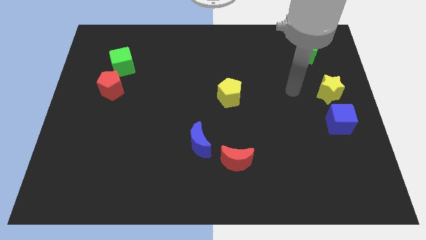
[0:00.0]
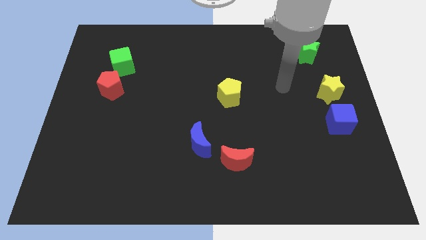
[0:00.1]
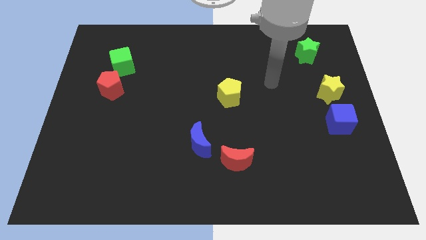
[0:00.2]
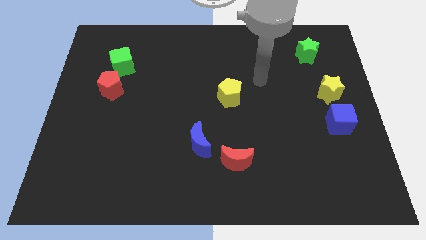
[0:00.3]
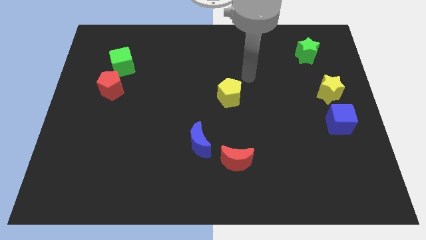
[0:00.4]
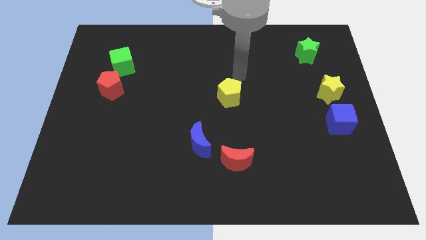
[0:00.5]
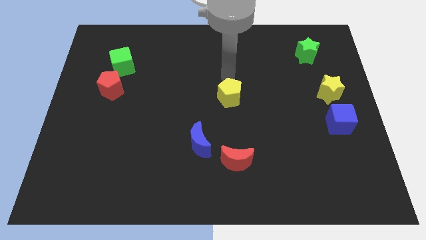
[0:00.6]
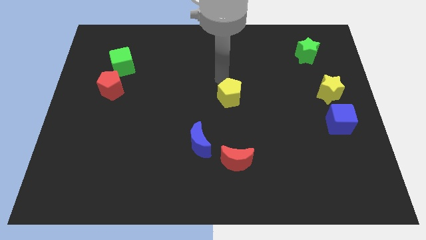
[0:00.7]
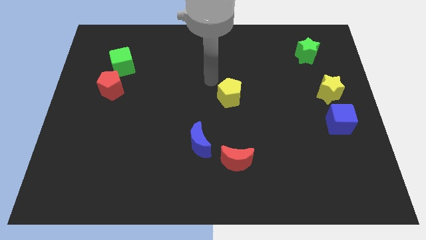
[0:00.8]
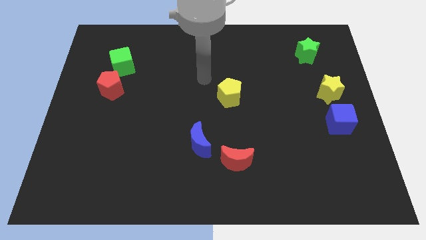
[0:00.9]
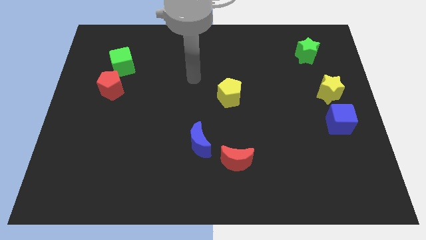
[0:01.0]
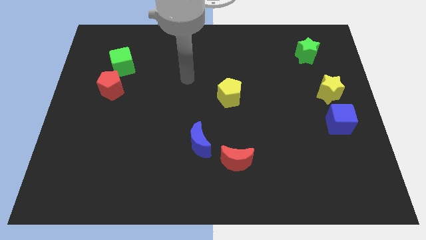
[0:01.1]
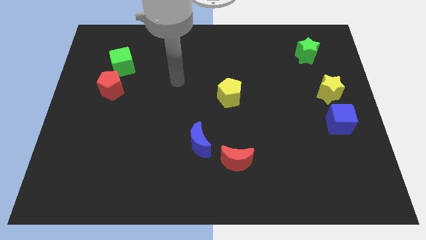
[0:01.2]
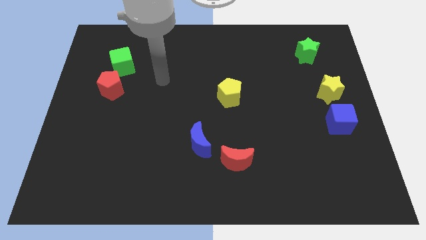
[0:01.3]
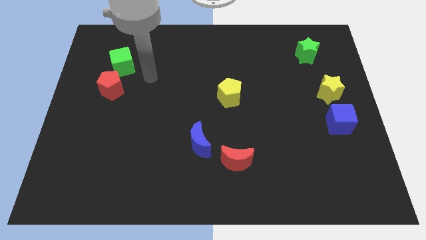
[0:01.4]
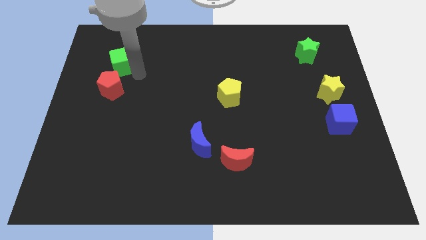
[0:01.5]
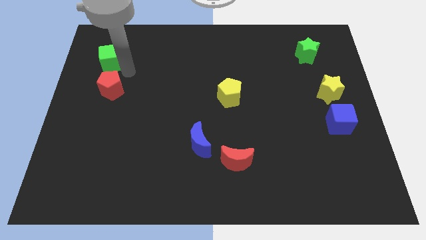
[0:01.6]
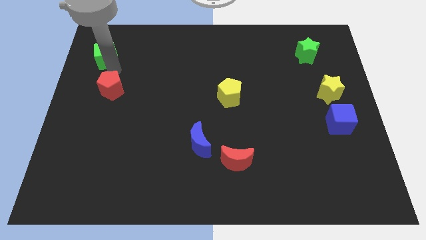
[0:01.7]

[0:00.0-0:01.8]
pull the red pentagon apart from the green cube

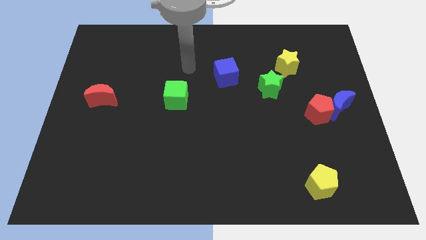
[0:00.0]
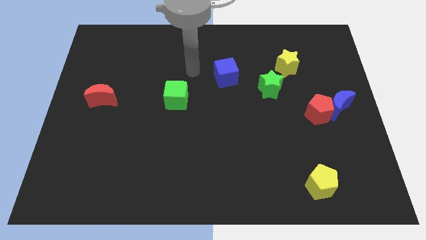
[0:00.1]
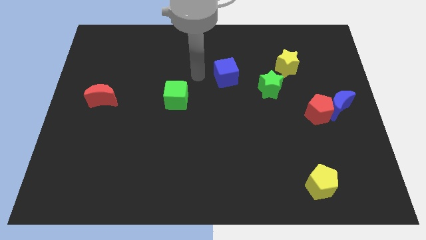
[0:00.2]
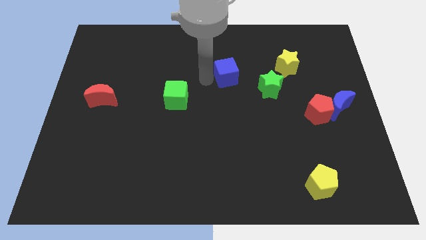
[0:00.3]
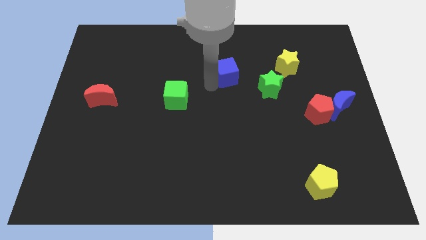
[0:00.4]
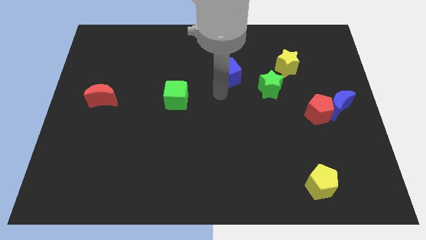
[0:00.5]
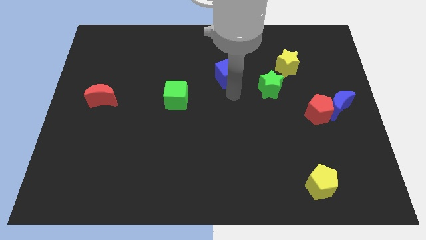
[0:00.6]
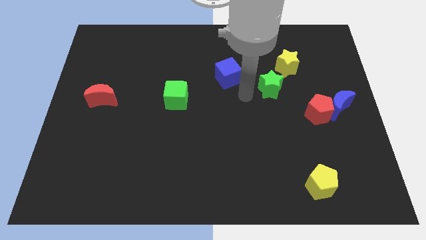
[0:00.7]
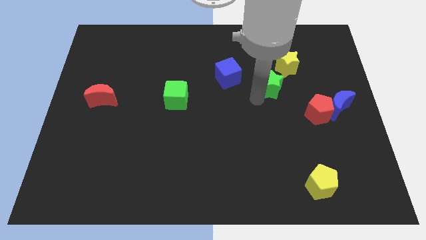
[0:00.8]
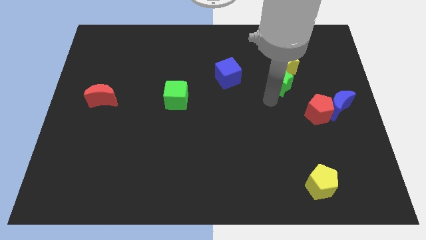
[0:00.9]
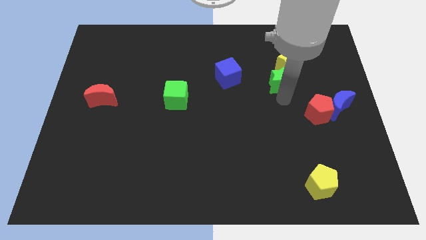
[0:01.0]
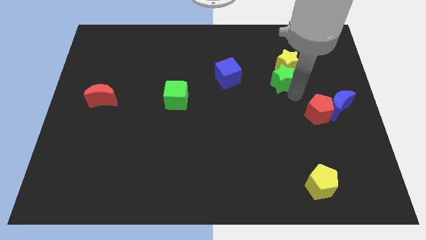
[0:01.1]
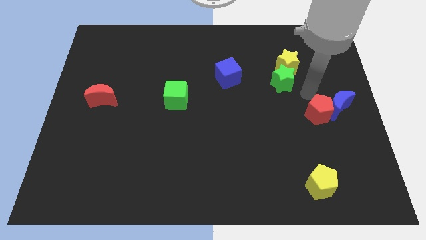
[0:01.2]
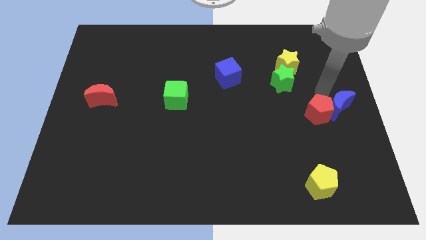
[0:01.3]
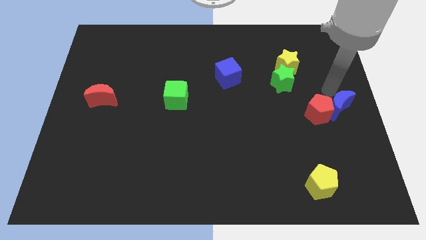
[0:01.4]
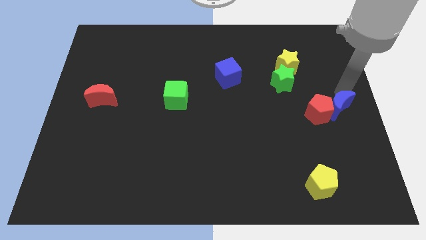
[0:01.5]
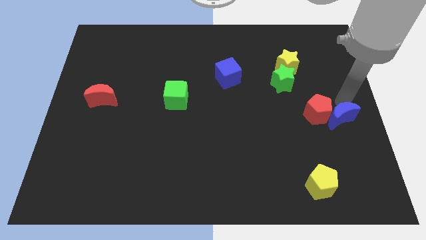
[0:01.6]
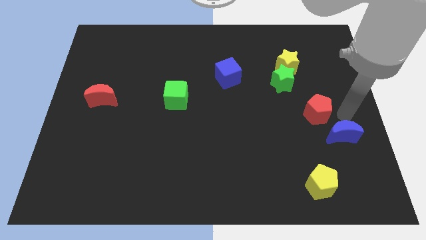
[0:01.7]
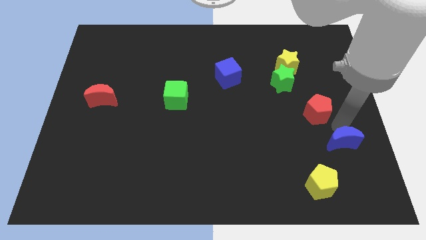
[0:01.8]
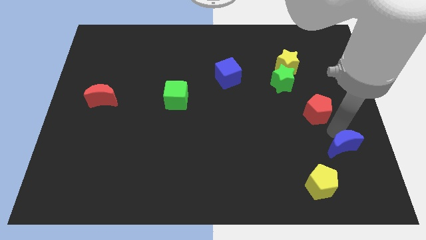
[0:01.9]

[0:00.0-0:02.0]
separate the red pentagon from the blue moon

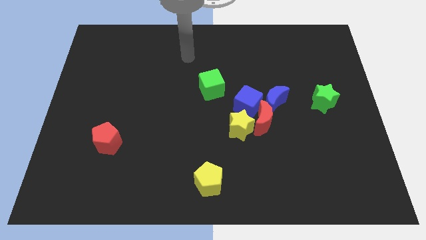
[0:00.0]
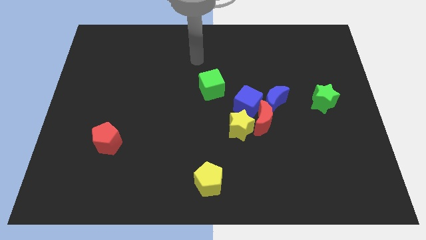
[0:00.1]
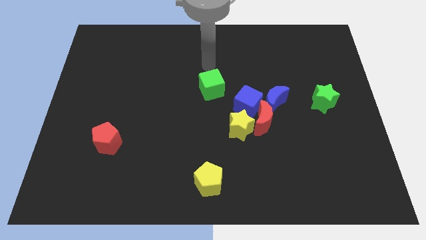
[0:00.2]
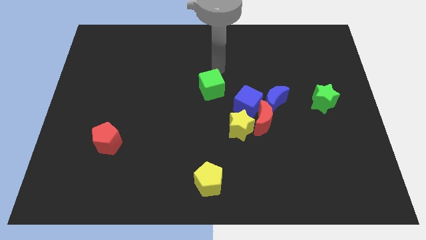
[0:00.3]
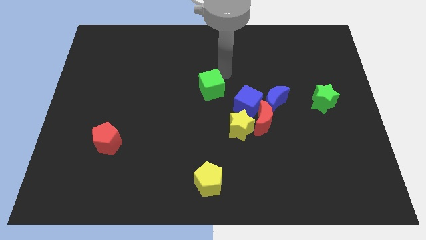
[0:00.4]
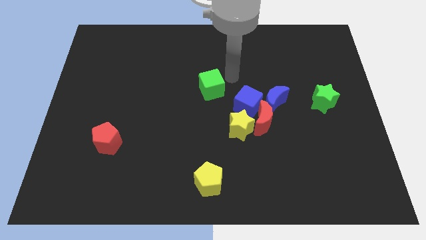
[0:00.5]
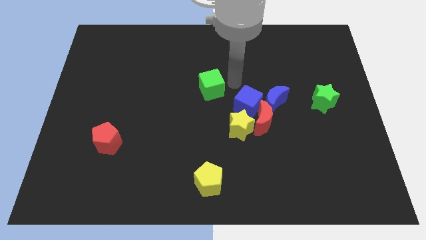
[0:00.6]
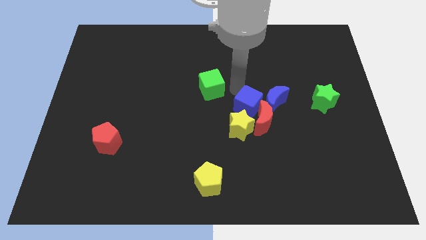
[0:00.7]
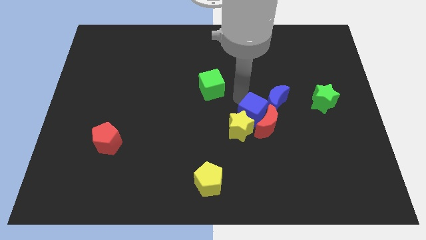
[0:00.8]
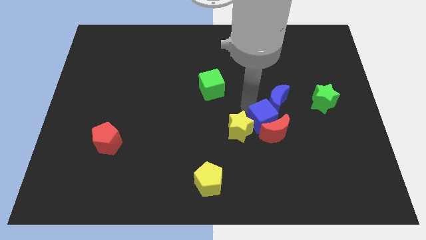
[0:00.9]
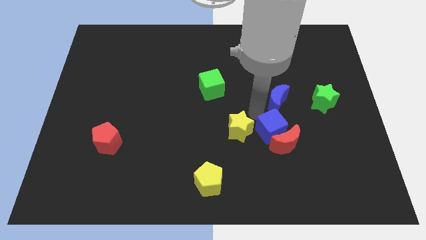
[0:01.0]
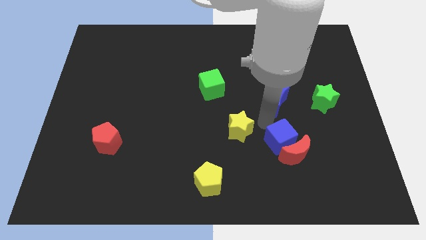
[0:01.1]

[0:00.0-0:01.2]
pull the red moon apart from the yellow star, blue cube, and blue moon

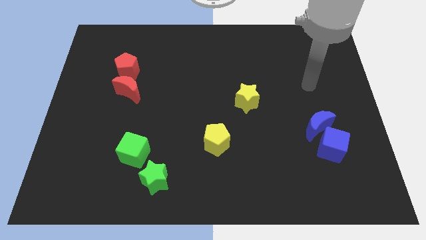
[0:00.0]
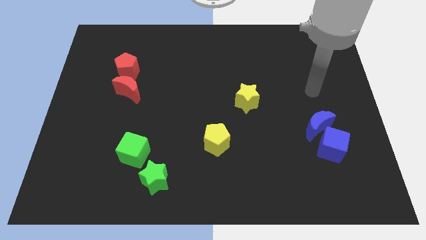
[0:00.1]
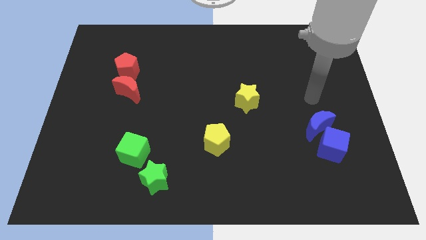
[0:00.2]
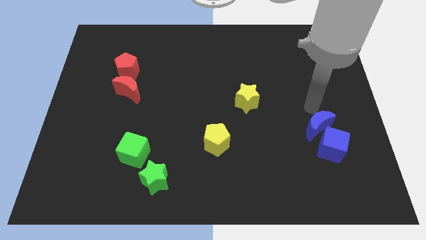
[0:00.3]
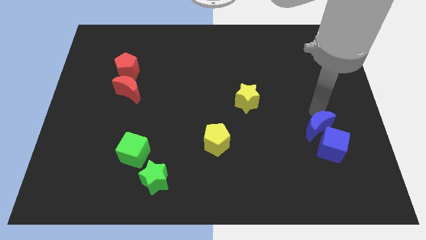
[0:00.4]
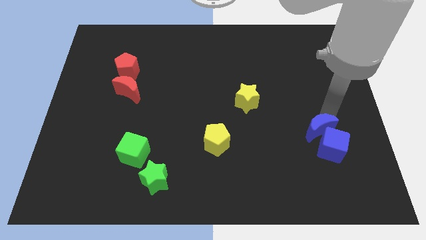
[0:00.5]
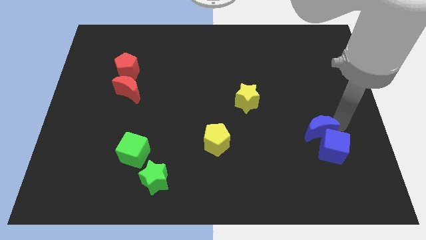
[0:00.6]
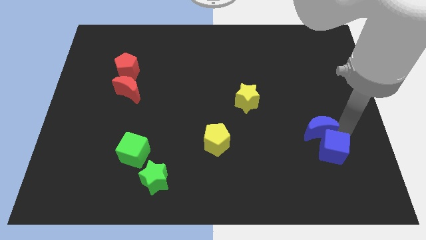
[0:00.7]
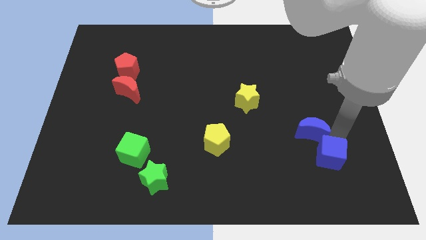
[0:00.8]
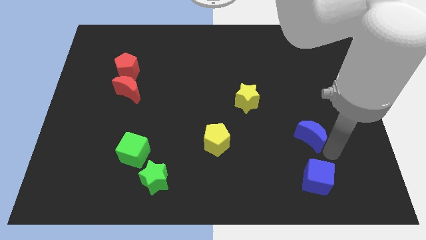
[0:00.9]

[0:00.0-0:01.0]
separate the blue moon from the blue cube

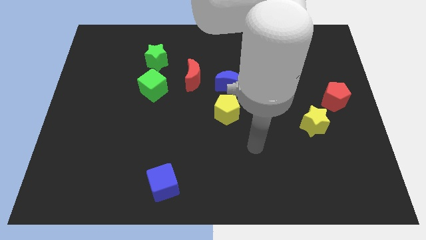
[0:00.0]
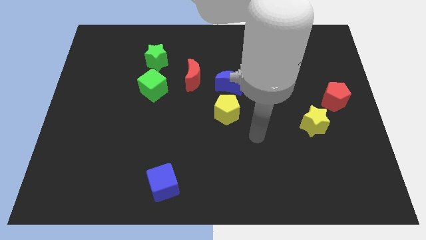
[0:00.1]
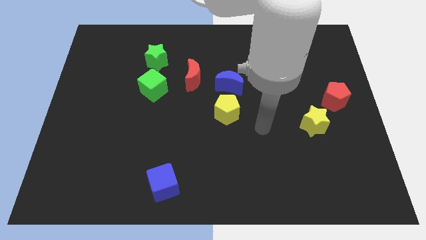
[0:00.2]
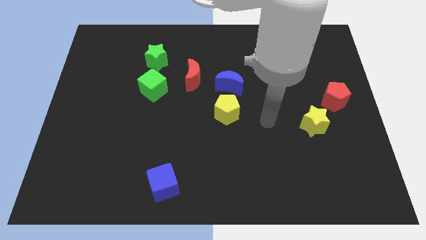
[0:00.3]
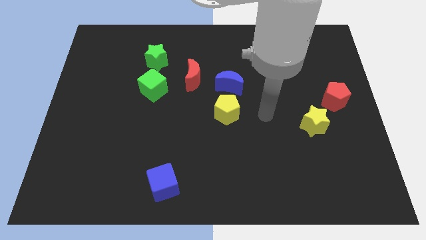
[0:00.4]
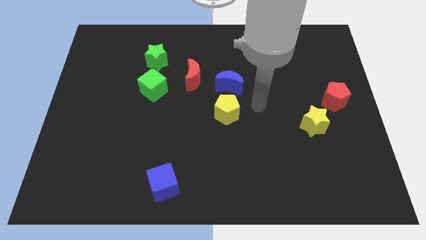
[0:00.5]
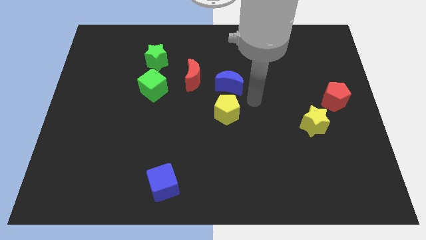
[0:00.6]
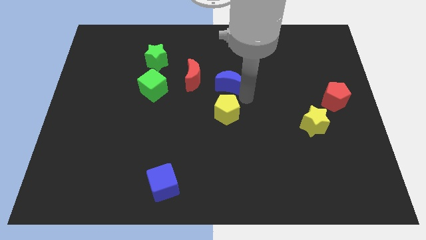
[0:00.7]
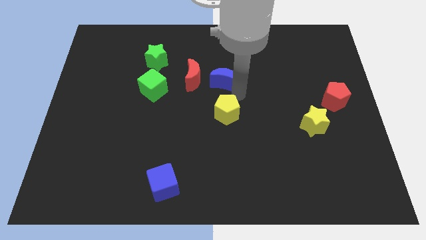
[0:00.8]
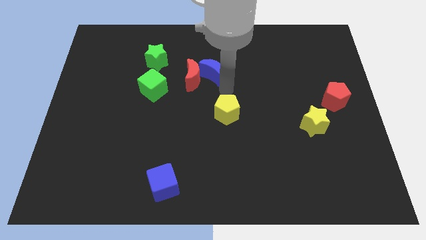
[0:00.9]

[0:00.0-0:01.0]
pull the yellow pentagon apart from the blue moon

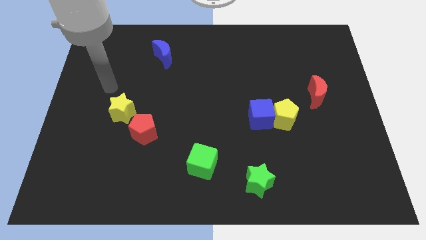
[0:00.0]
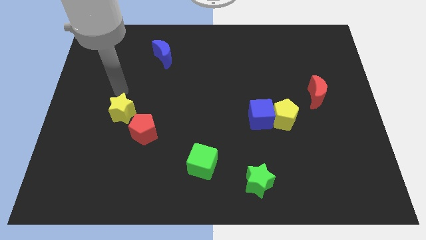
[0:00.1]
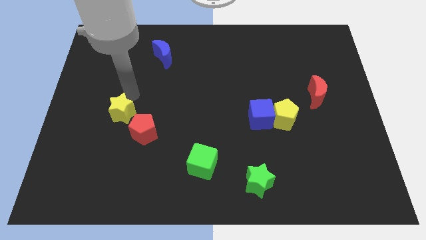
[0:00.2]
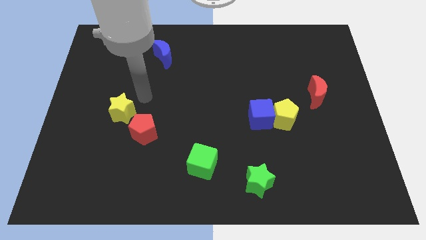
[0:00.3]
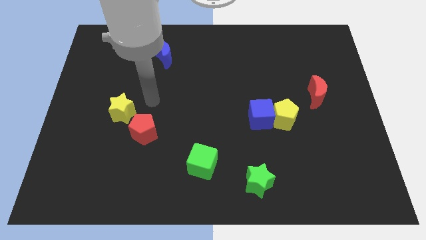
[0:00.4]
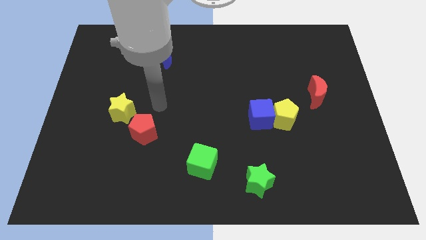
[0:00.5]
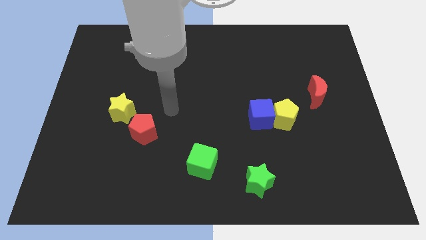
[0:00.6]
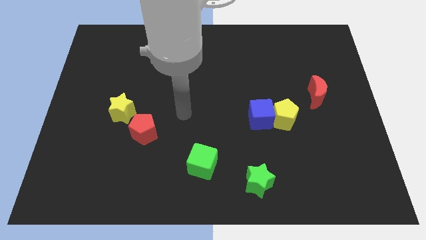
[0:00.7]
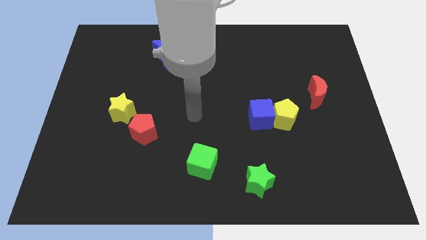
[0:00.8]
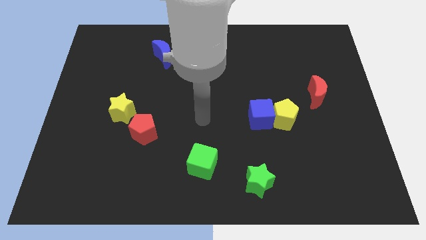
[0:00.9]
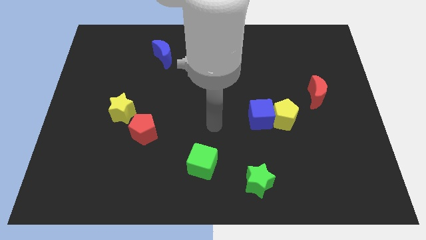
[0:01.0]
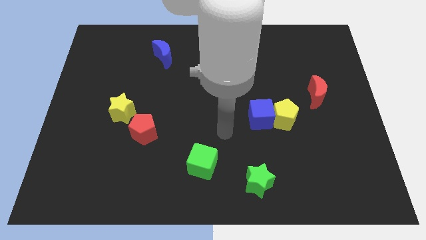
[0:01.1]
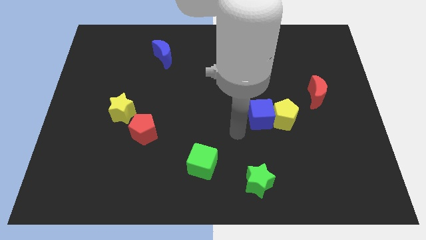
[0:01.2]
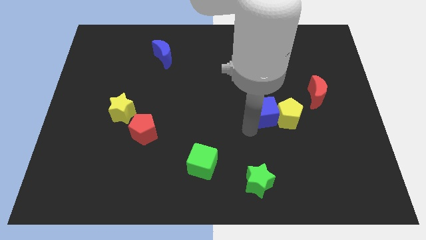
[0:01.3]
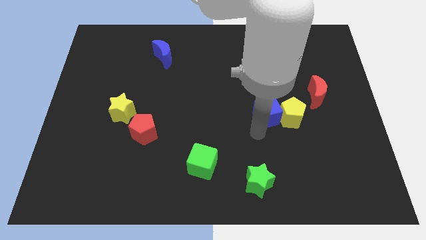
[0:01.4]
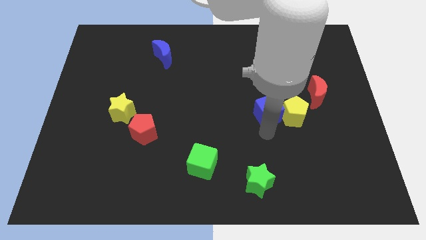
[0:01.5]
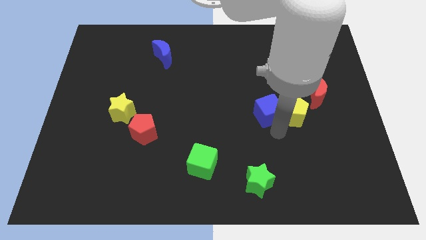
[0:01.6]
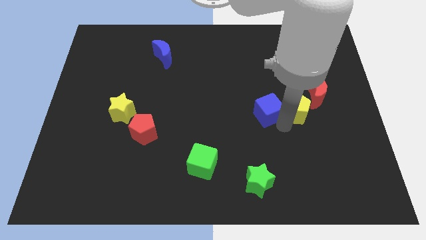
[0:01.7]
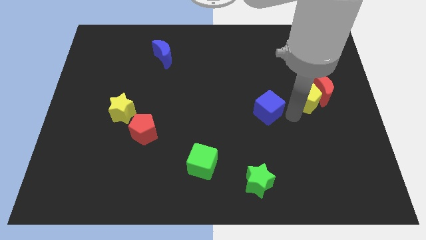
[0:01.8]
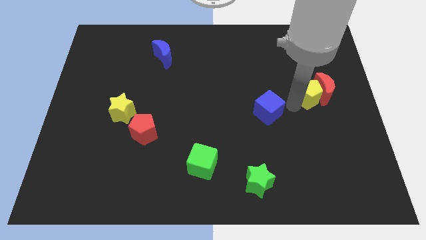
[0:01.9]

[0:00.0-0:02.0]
pull the blue cube apart from the yellow pentagon

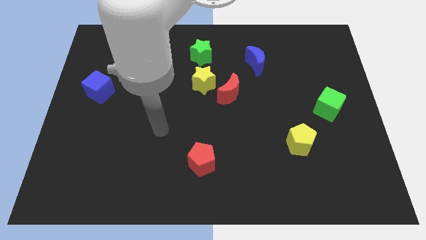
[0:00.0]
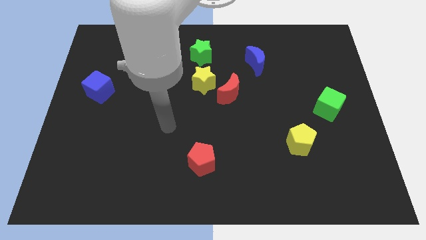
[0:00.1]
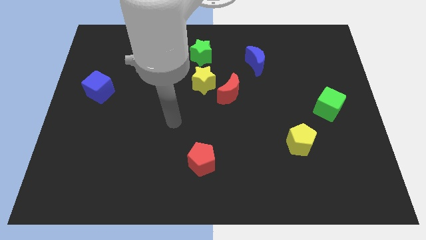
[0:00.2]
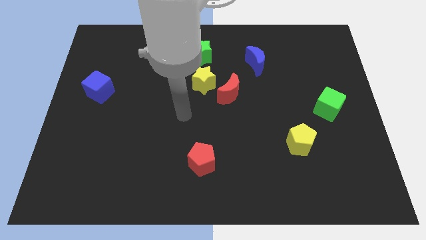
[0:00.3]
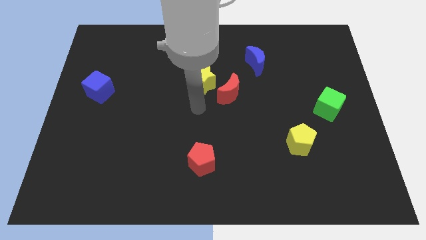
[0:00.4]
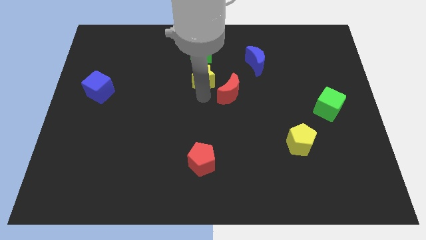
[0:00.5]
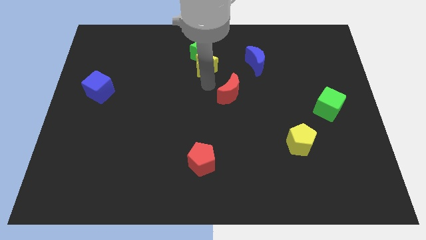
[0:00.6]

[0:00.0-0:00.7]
move the red moon away from the yellow star
